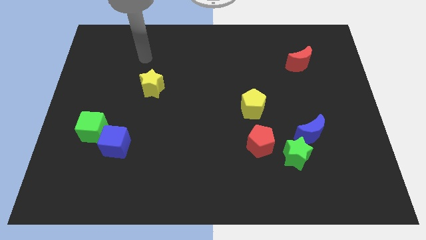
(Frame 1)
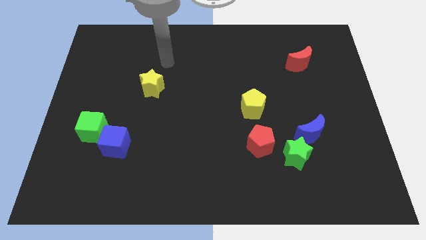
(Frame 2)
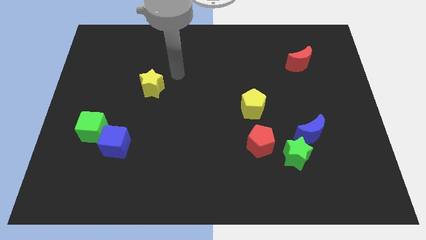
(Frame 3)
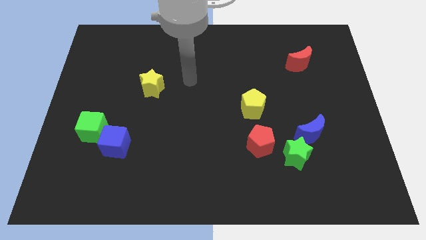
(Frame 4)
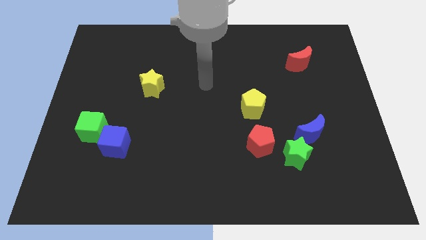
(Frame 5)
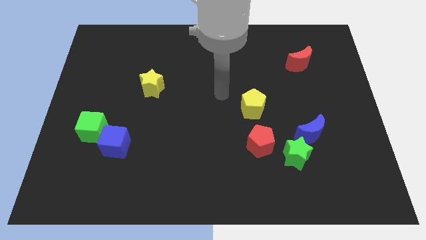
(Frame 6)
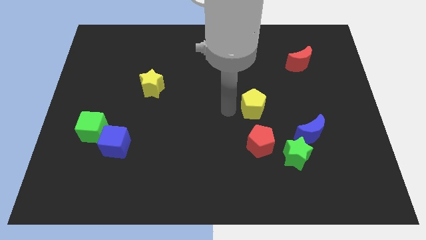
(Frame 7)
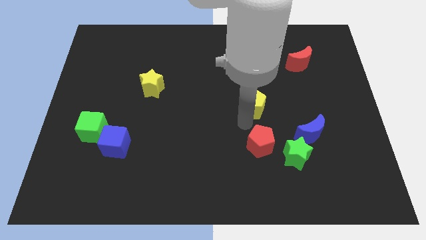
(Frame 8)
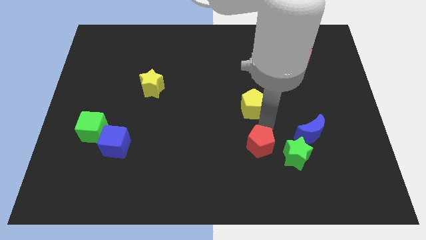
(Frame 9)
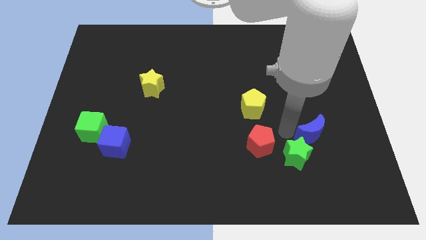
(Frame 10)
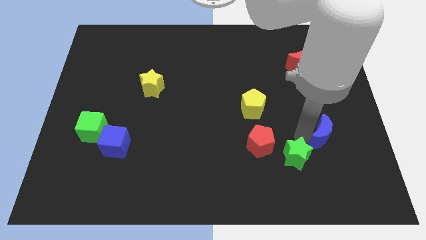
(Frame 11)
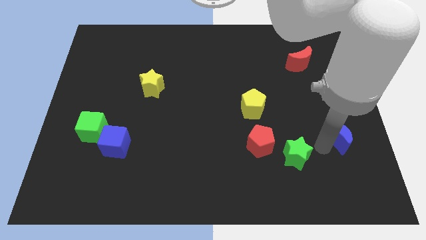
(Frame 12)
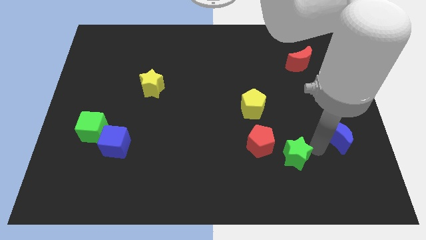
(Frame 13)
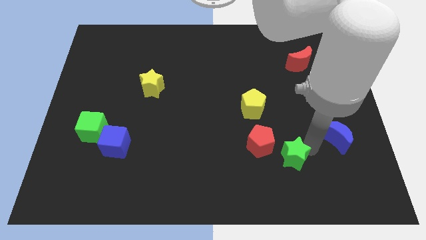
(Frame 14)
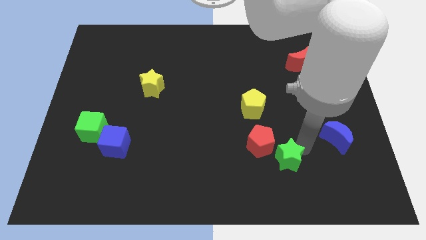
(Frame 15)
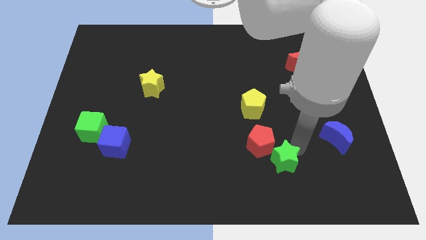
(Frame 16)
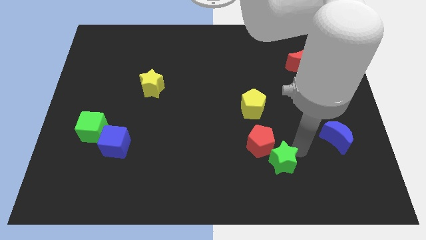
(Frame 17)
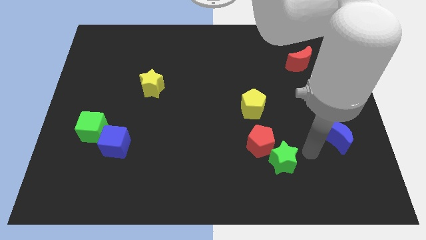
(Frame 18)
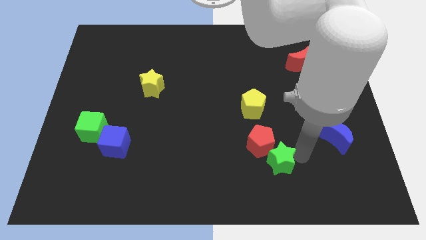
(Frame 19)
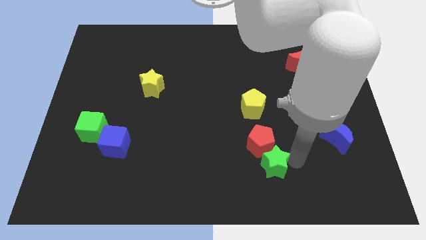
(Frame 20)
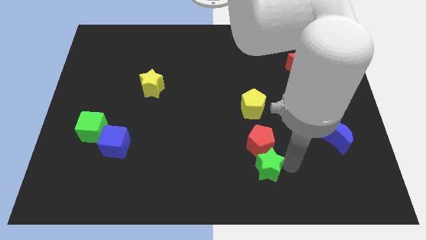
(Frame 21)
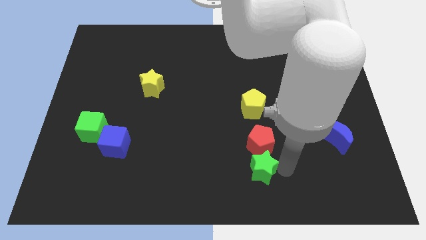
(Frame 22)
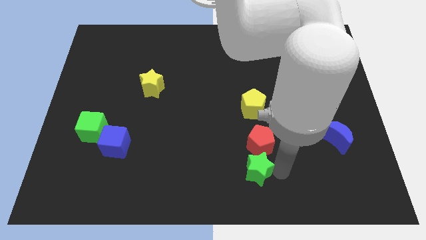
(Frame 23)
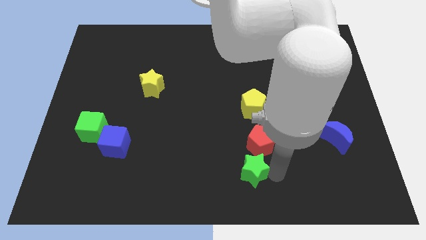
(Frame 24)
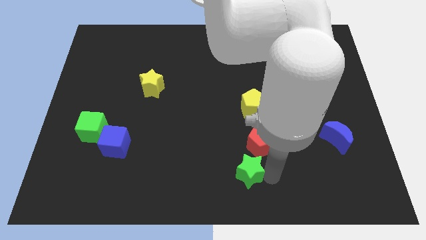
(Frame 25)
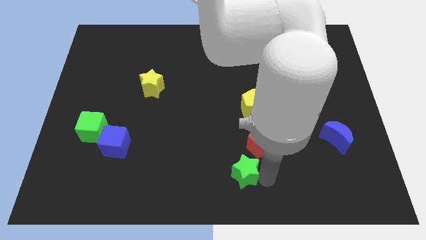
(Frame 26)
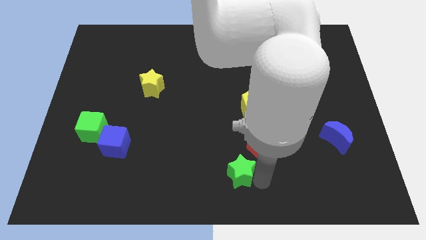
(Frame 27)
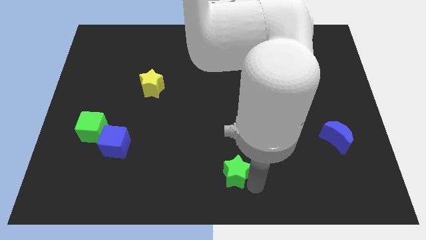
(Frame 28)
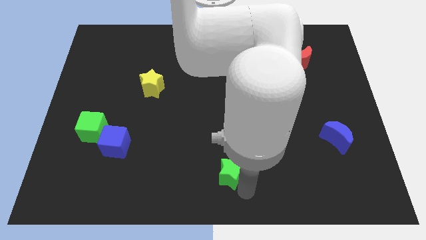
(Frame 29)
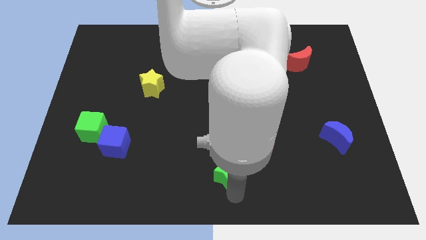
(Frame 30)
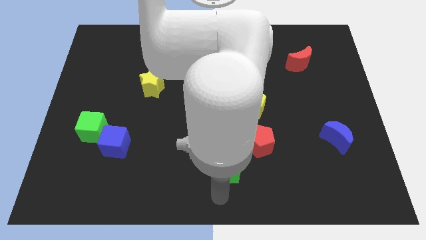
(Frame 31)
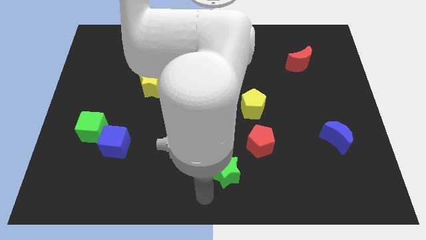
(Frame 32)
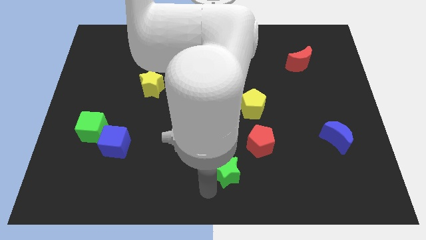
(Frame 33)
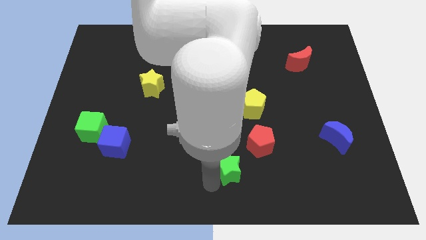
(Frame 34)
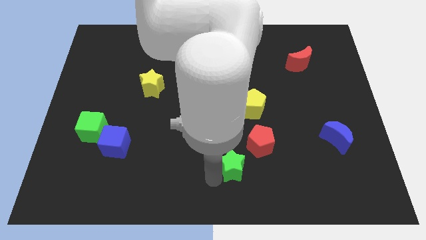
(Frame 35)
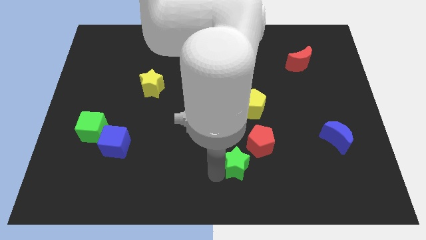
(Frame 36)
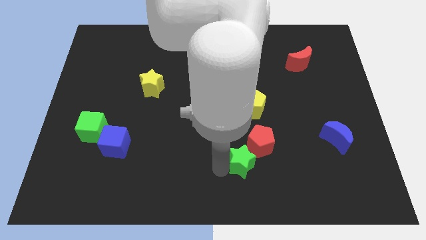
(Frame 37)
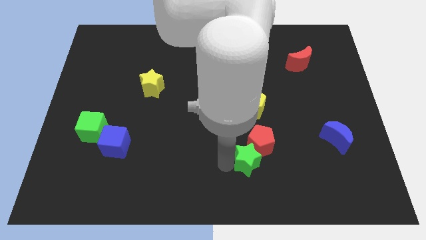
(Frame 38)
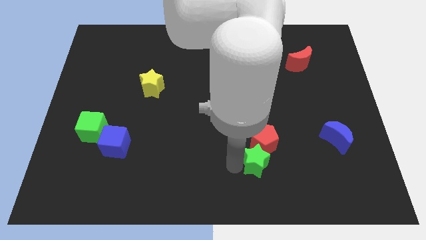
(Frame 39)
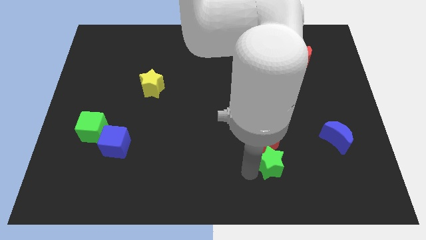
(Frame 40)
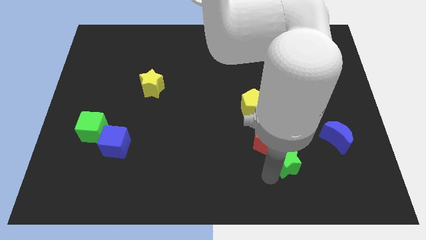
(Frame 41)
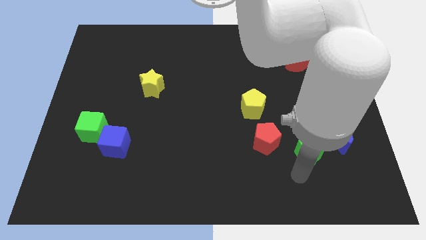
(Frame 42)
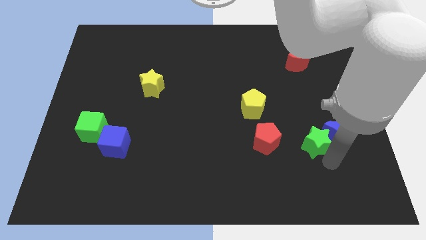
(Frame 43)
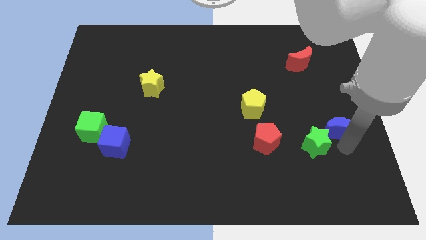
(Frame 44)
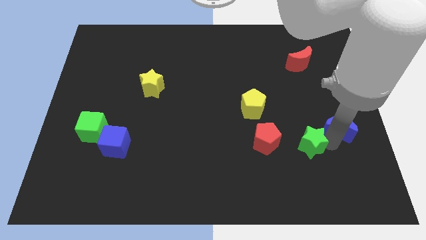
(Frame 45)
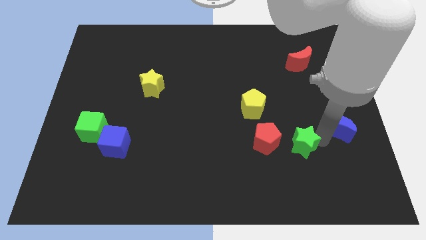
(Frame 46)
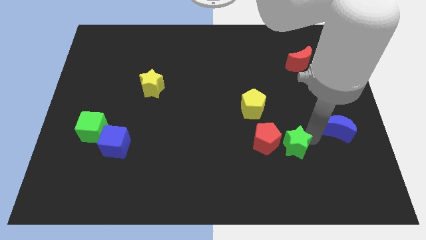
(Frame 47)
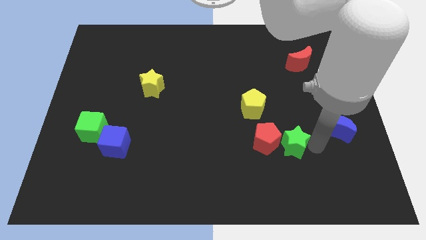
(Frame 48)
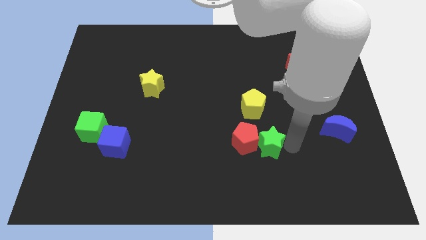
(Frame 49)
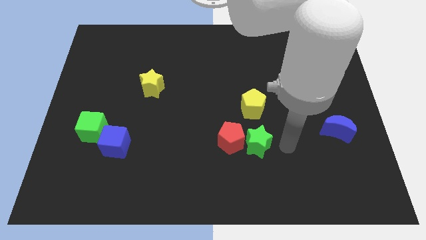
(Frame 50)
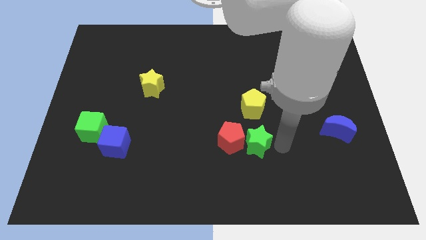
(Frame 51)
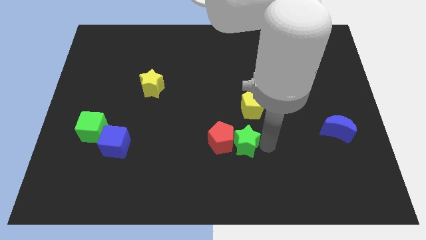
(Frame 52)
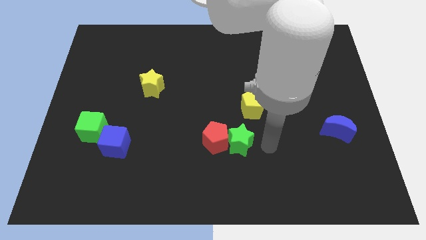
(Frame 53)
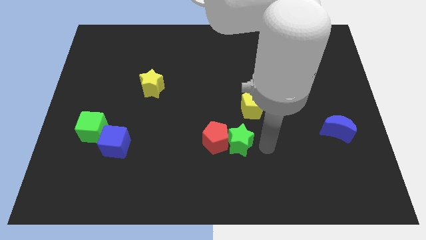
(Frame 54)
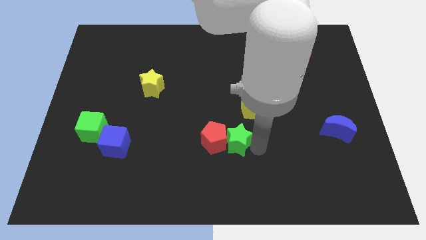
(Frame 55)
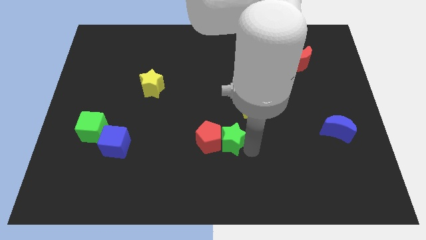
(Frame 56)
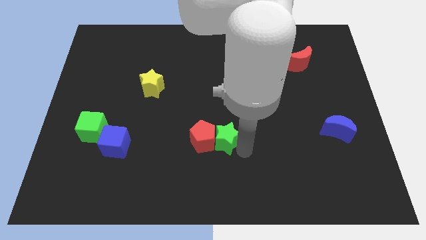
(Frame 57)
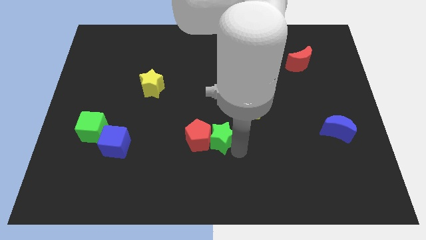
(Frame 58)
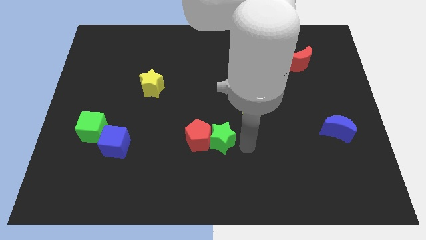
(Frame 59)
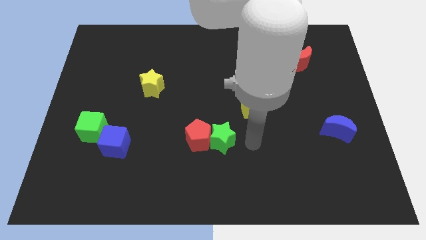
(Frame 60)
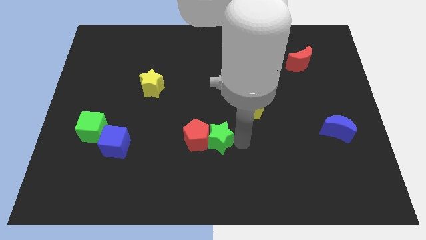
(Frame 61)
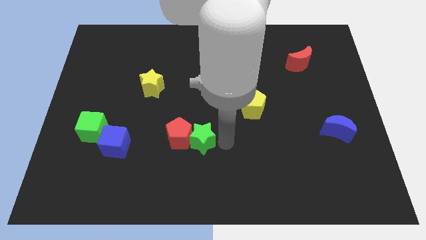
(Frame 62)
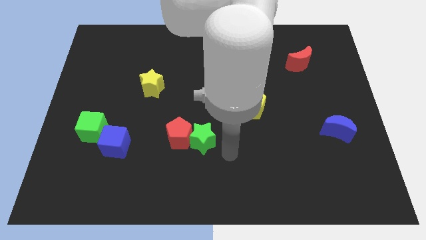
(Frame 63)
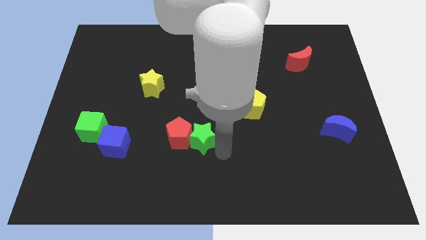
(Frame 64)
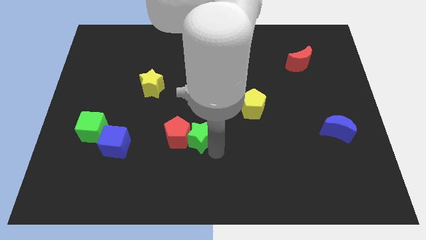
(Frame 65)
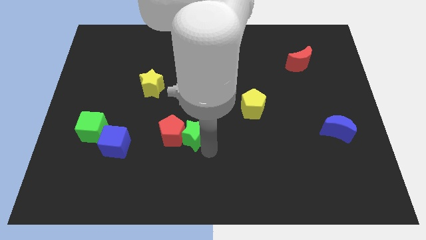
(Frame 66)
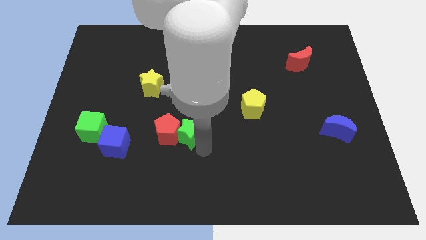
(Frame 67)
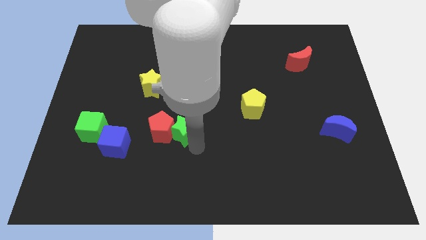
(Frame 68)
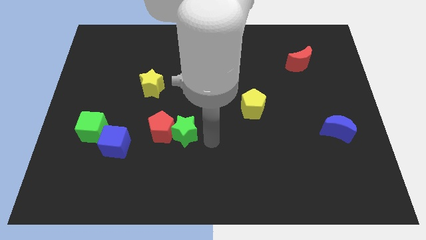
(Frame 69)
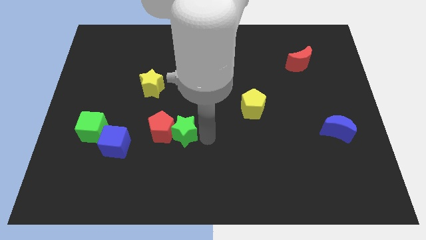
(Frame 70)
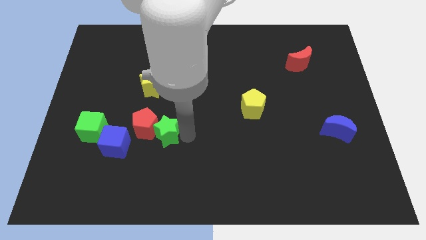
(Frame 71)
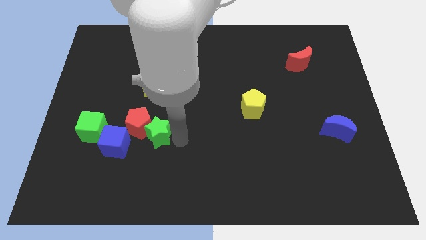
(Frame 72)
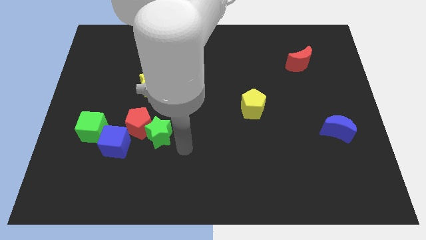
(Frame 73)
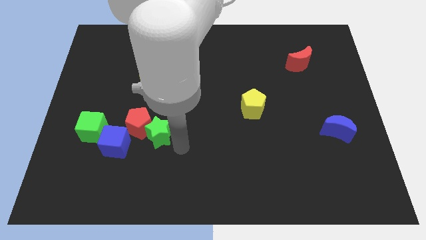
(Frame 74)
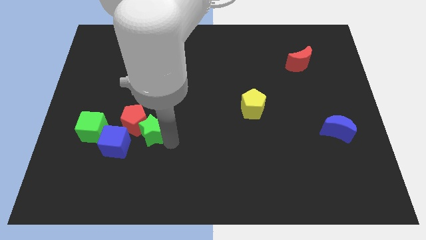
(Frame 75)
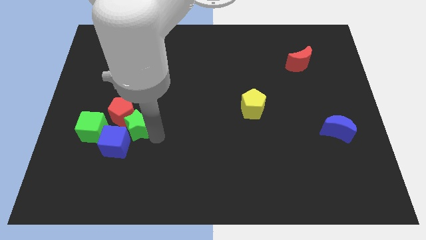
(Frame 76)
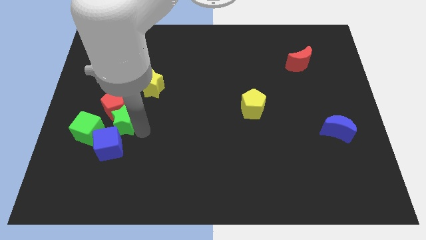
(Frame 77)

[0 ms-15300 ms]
push the green star to the top right of the green cube
